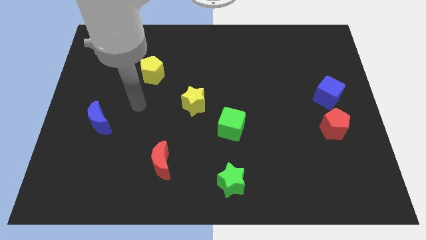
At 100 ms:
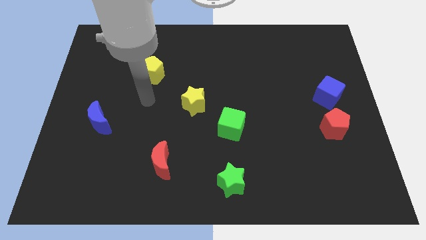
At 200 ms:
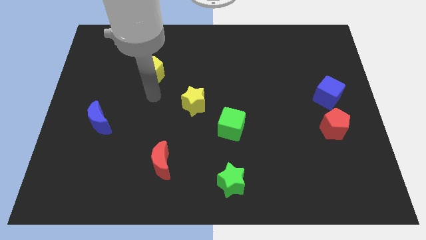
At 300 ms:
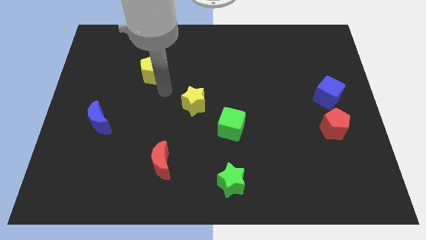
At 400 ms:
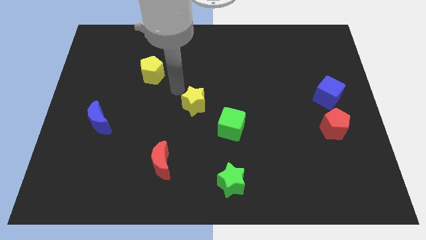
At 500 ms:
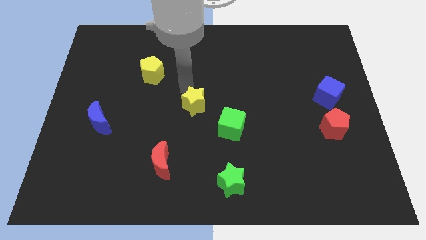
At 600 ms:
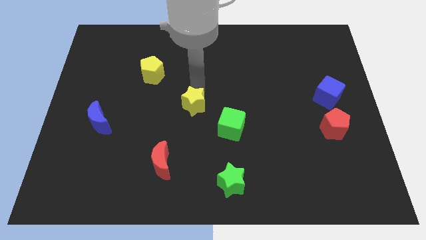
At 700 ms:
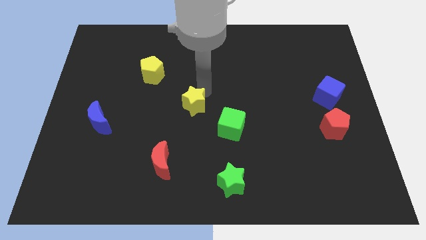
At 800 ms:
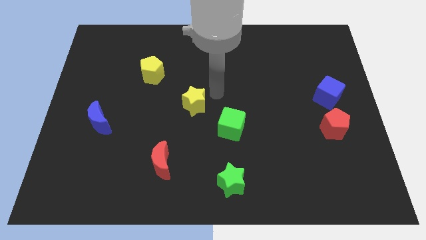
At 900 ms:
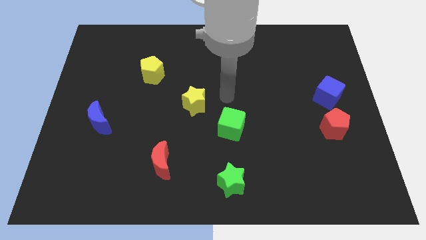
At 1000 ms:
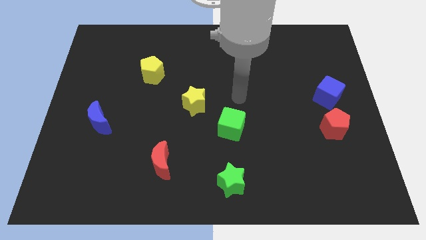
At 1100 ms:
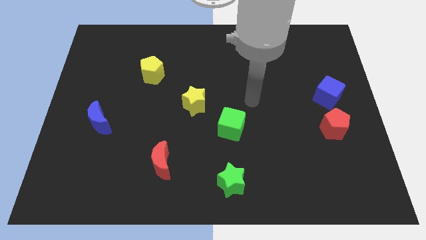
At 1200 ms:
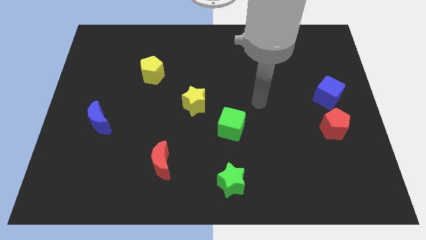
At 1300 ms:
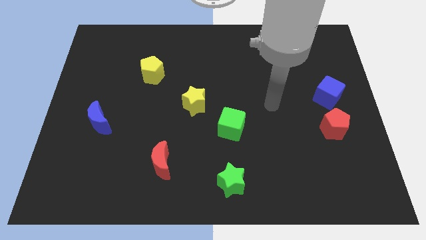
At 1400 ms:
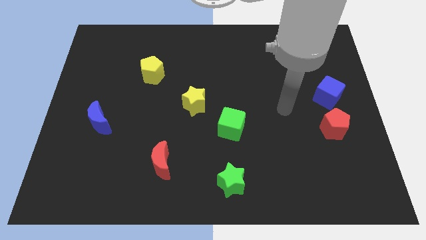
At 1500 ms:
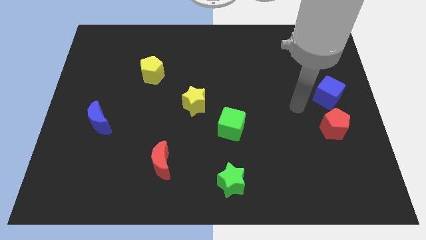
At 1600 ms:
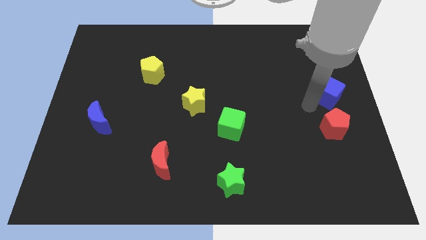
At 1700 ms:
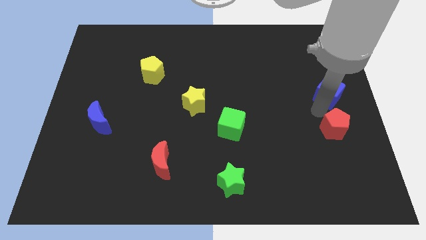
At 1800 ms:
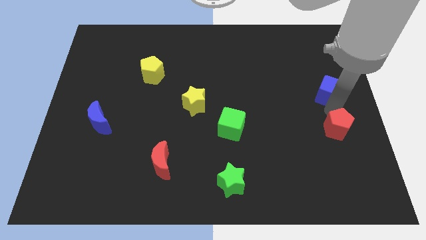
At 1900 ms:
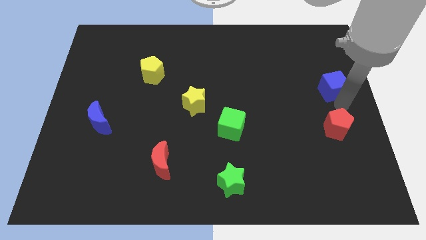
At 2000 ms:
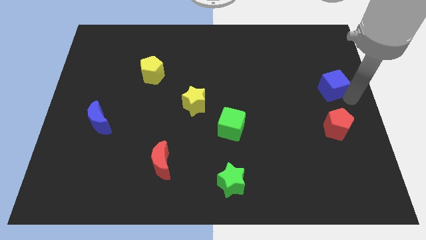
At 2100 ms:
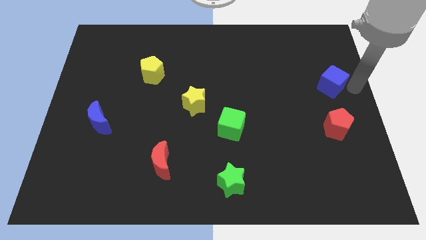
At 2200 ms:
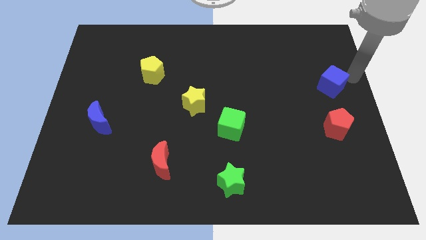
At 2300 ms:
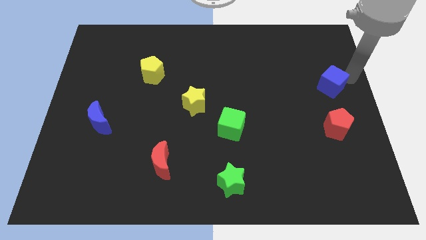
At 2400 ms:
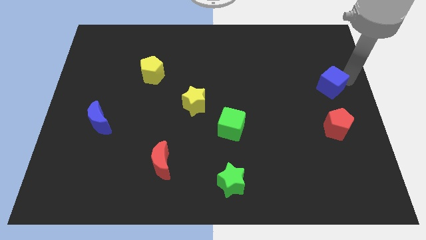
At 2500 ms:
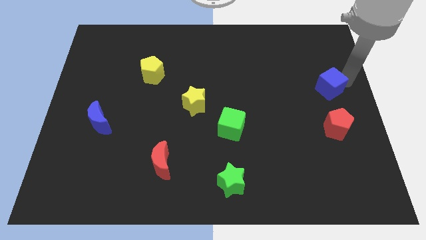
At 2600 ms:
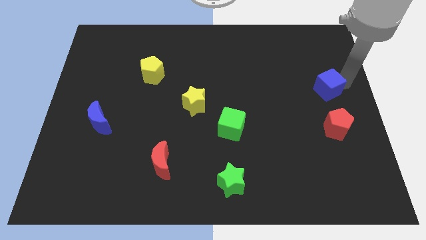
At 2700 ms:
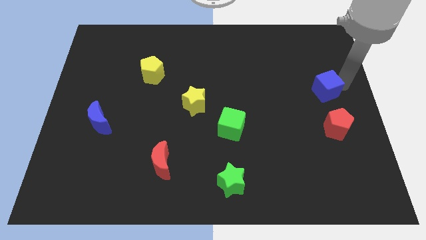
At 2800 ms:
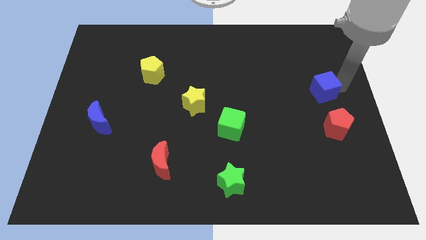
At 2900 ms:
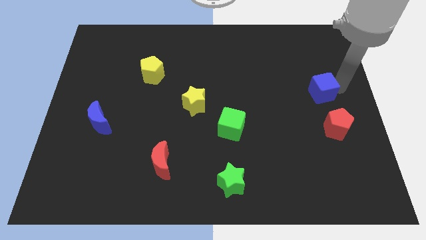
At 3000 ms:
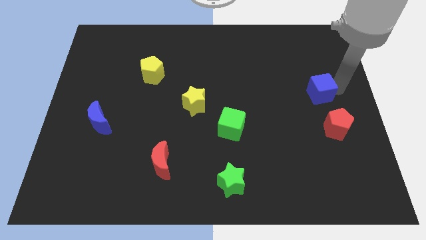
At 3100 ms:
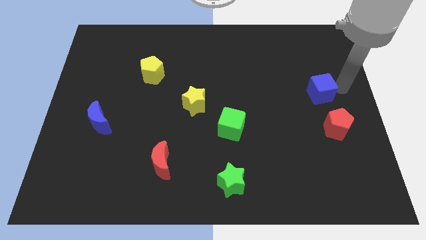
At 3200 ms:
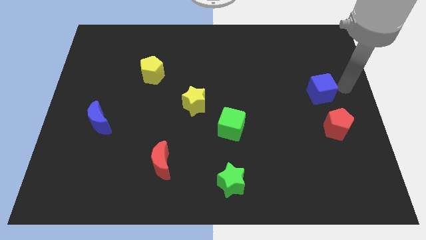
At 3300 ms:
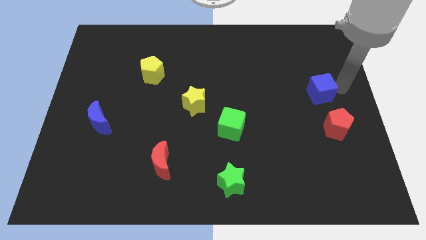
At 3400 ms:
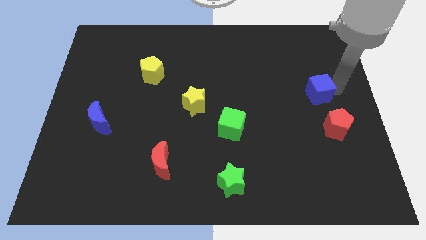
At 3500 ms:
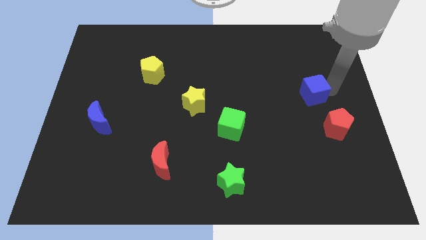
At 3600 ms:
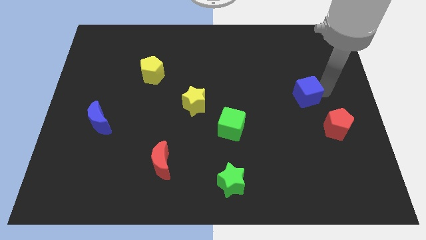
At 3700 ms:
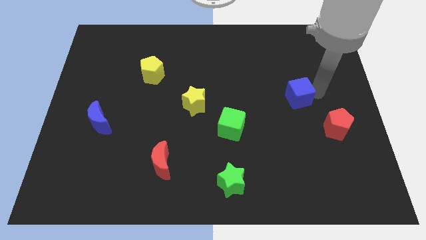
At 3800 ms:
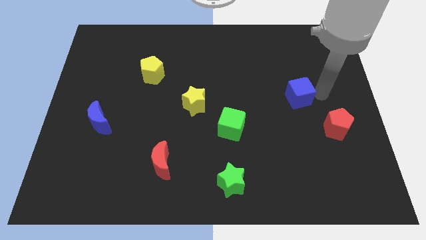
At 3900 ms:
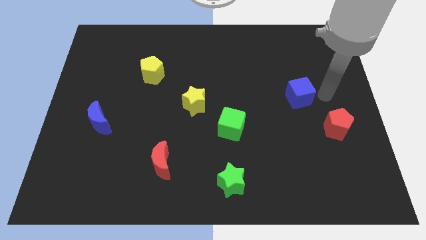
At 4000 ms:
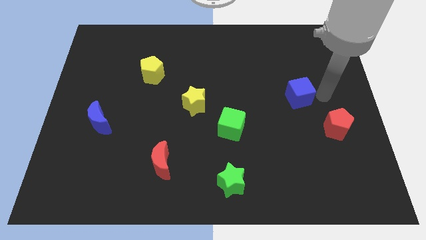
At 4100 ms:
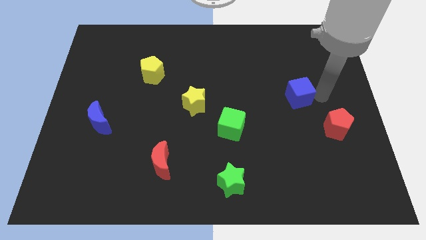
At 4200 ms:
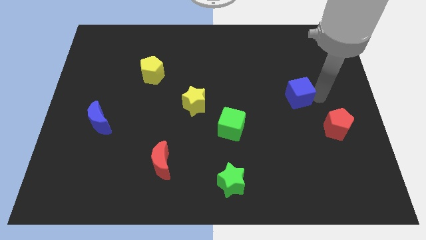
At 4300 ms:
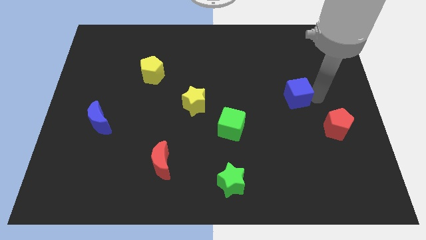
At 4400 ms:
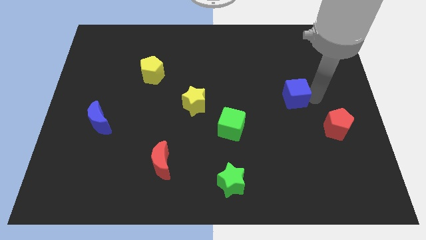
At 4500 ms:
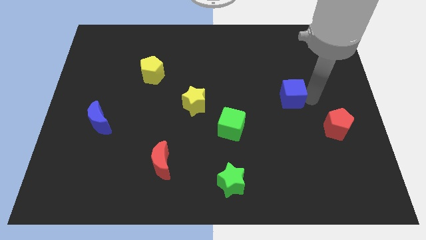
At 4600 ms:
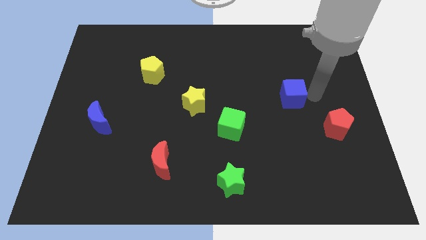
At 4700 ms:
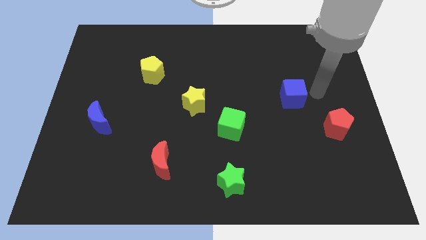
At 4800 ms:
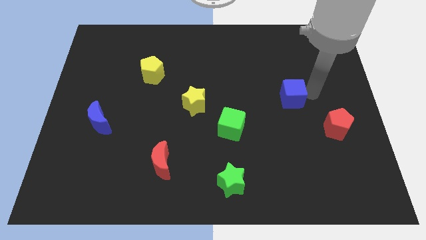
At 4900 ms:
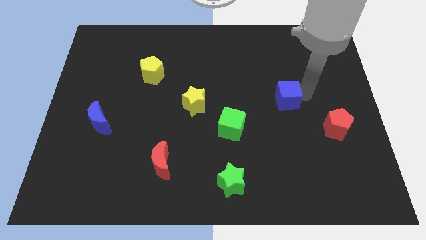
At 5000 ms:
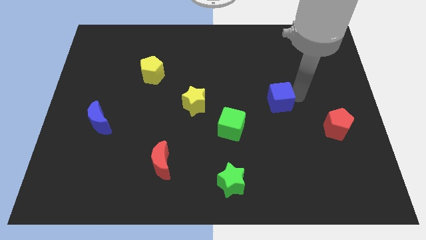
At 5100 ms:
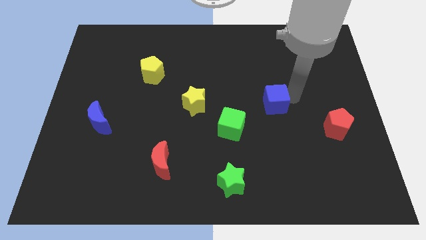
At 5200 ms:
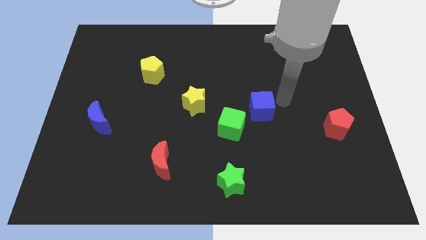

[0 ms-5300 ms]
put the blue cube to the center of the board

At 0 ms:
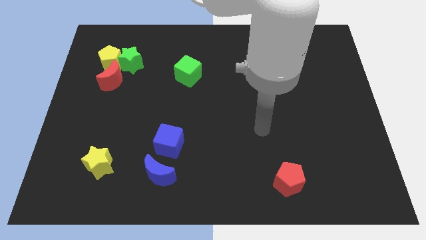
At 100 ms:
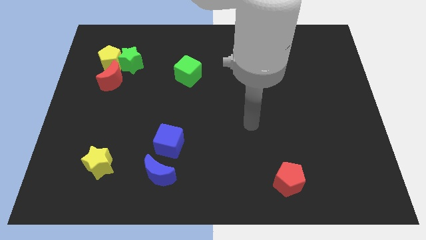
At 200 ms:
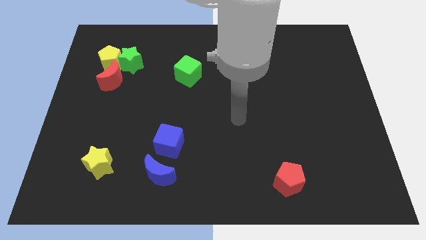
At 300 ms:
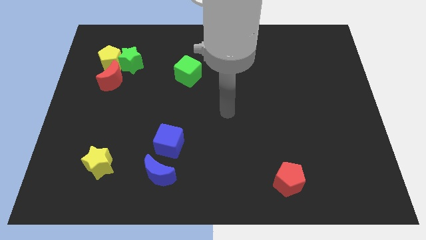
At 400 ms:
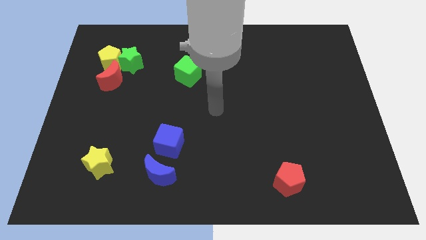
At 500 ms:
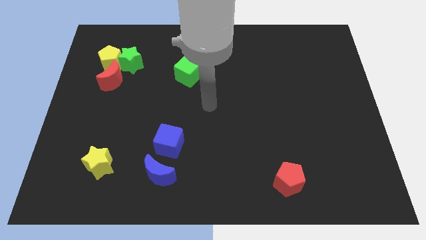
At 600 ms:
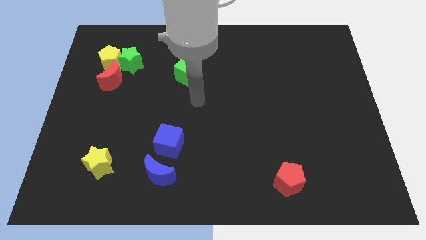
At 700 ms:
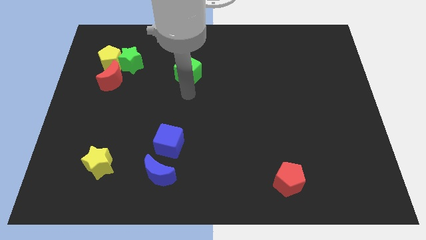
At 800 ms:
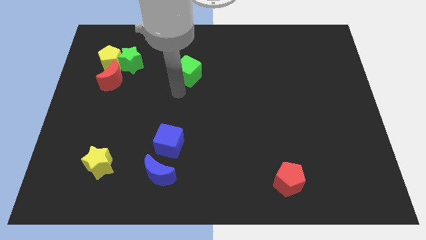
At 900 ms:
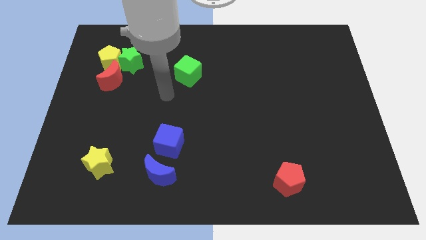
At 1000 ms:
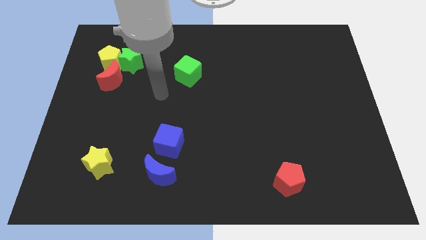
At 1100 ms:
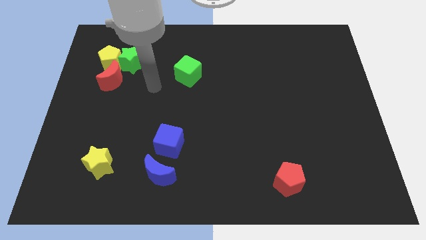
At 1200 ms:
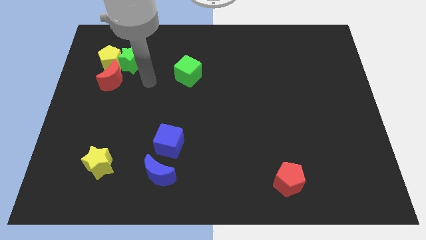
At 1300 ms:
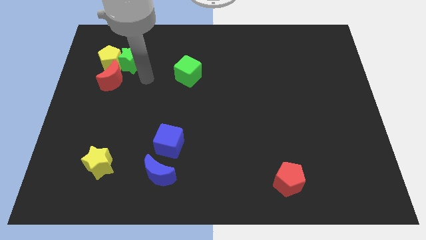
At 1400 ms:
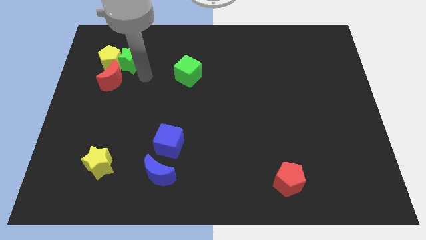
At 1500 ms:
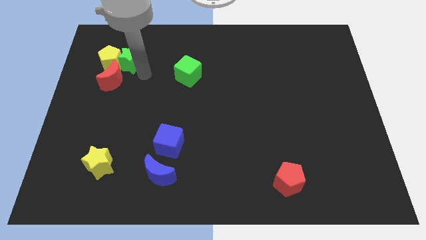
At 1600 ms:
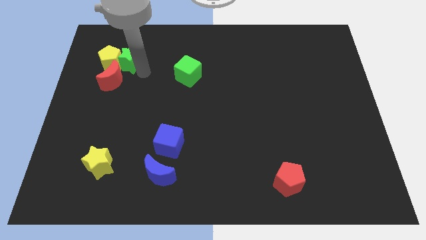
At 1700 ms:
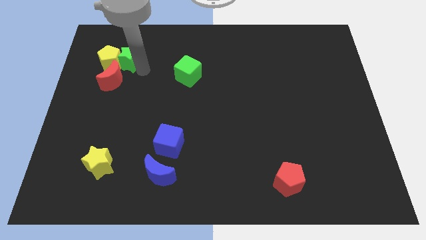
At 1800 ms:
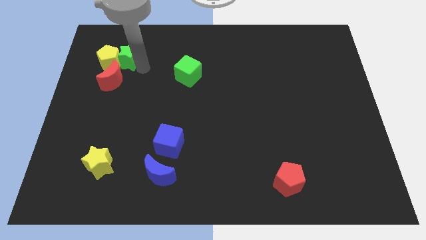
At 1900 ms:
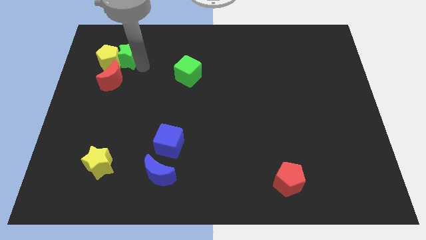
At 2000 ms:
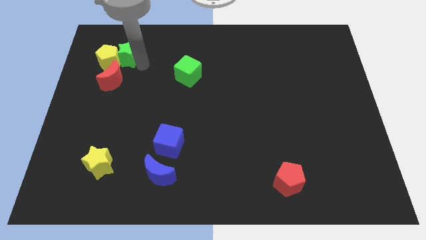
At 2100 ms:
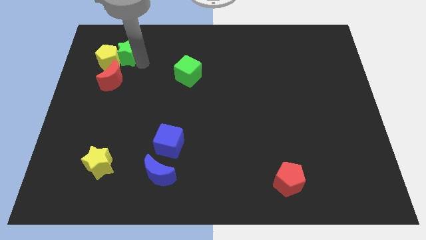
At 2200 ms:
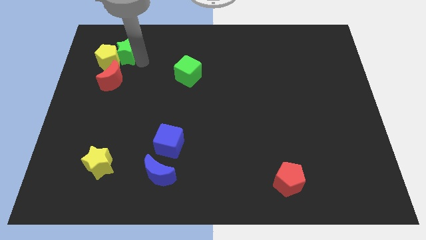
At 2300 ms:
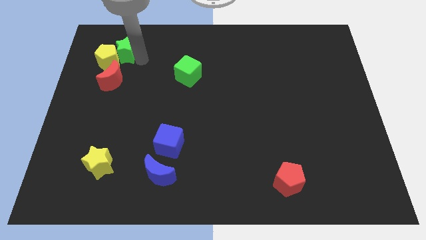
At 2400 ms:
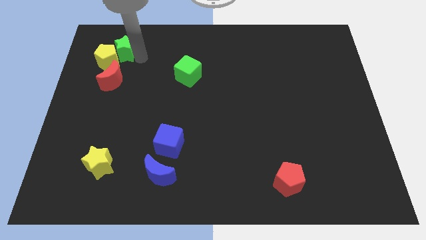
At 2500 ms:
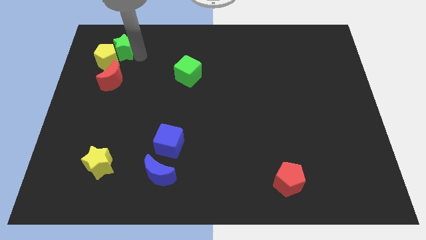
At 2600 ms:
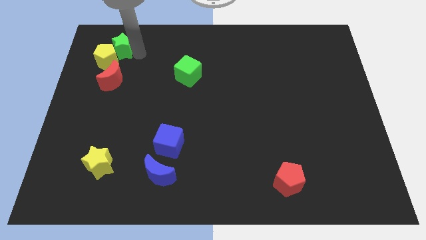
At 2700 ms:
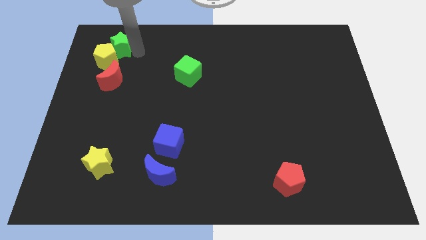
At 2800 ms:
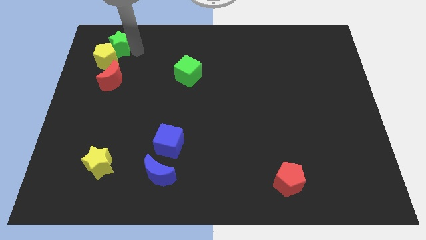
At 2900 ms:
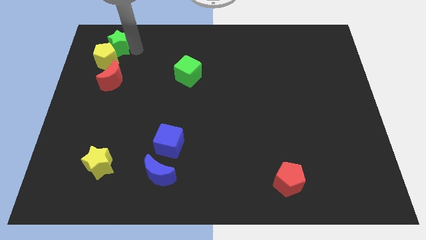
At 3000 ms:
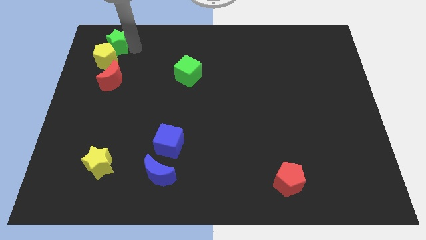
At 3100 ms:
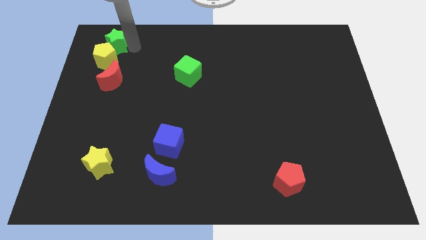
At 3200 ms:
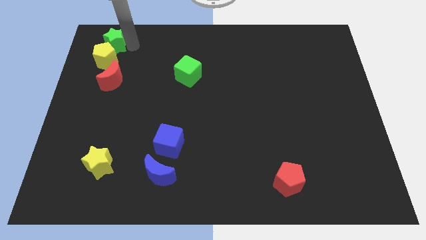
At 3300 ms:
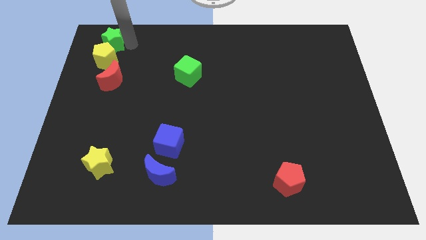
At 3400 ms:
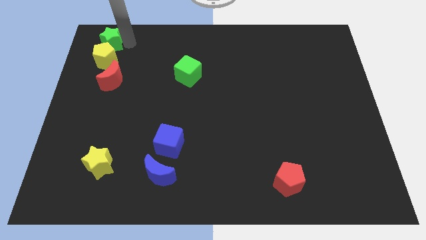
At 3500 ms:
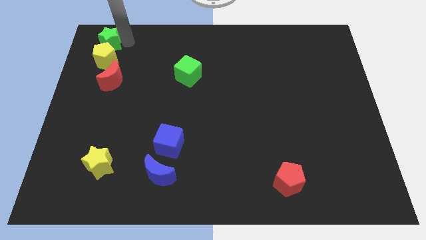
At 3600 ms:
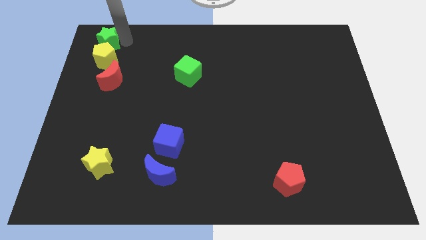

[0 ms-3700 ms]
slide the green star to the top left
